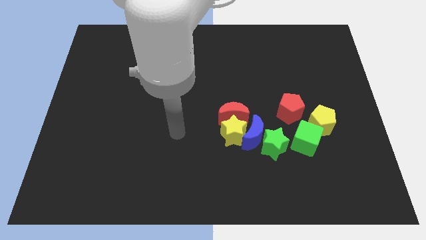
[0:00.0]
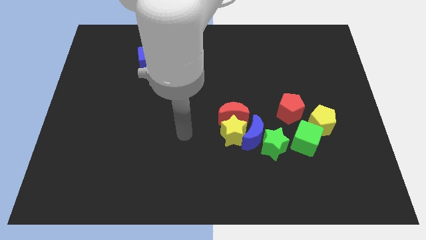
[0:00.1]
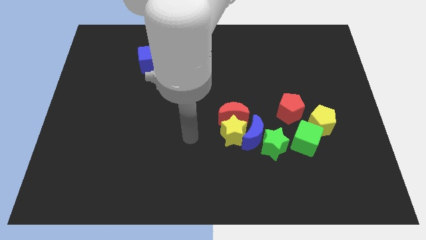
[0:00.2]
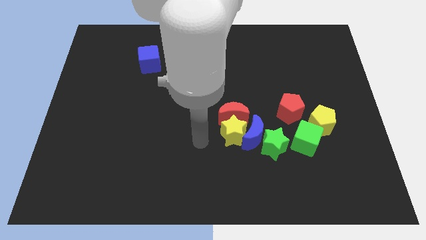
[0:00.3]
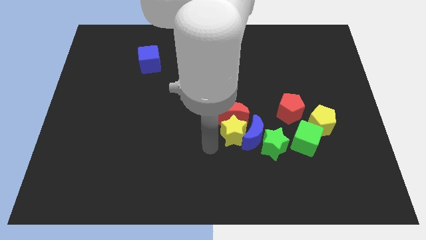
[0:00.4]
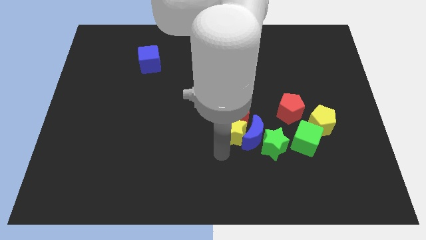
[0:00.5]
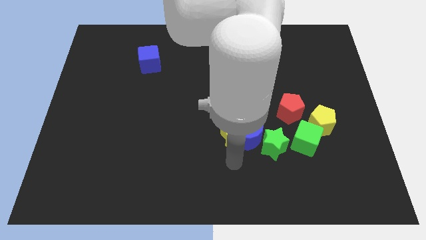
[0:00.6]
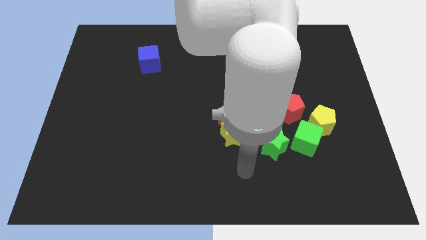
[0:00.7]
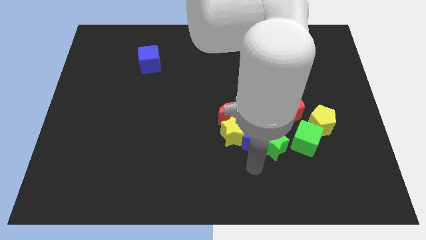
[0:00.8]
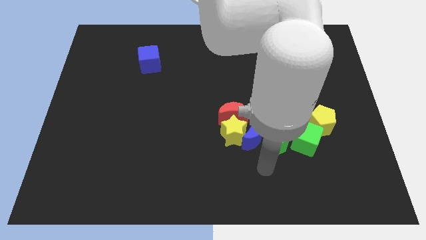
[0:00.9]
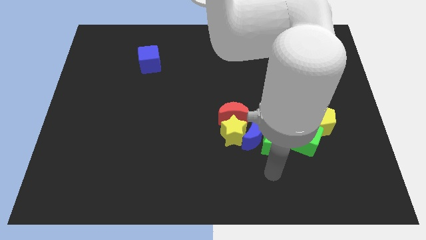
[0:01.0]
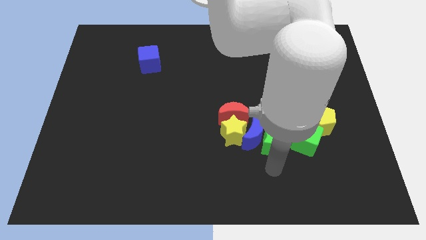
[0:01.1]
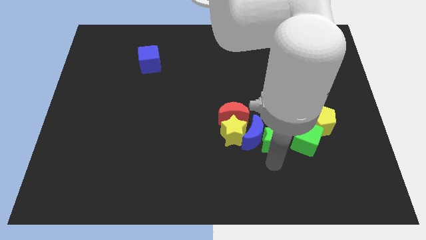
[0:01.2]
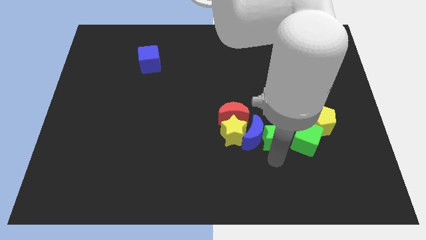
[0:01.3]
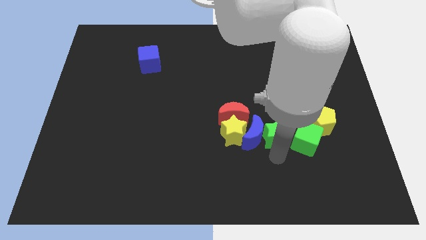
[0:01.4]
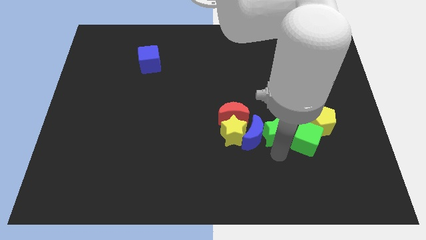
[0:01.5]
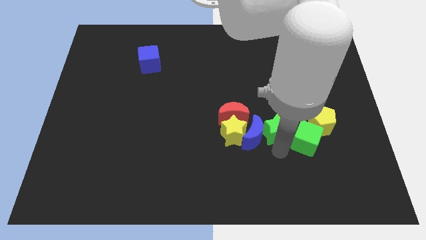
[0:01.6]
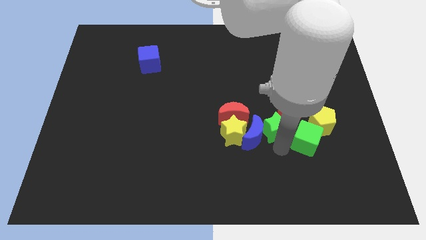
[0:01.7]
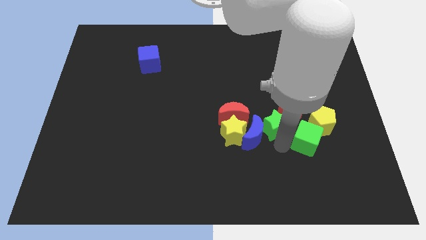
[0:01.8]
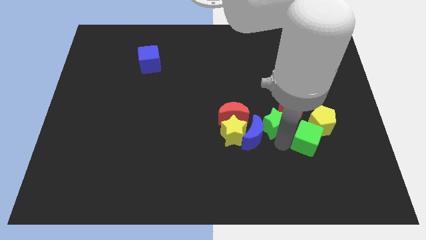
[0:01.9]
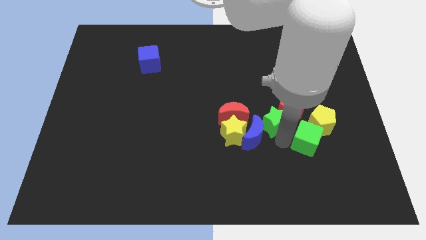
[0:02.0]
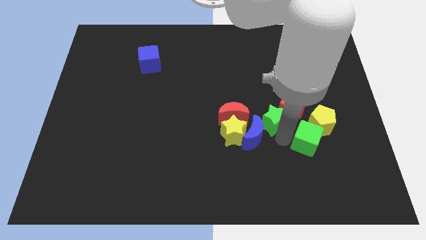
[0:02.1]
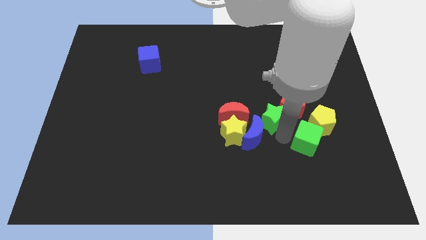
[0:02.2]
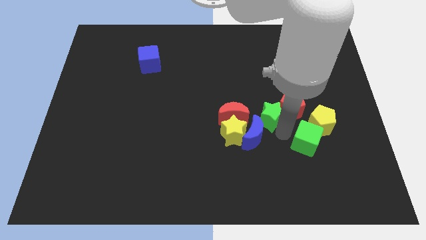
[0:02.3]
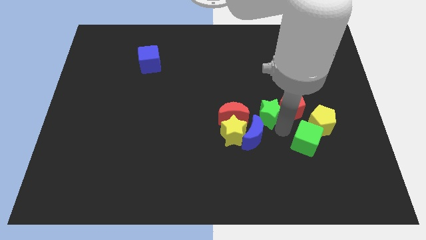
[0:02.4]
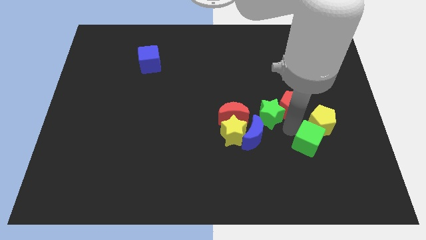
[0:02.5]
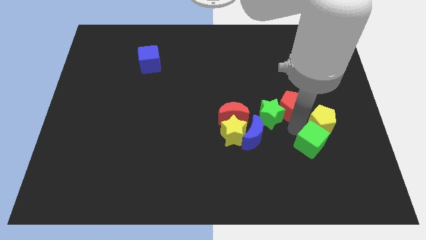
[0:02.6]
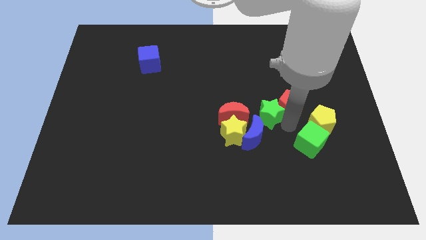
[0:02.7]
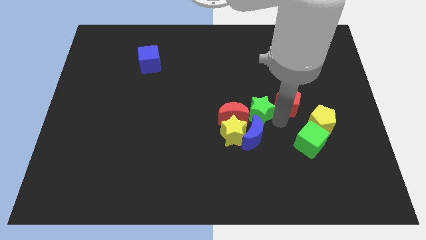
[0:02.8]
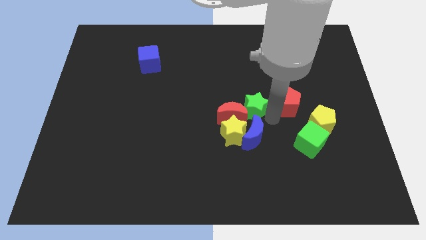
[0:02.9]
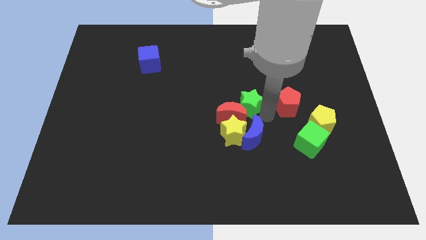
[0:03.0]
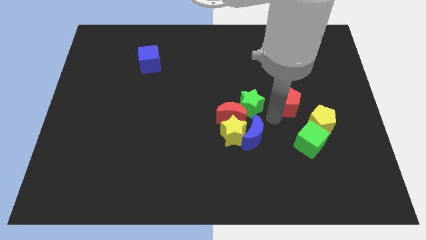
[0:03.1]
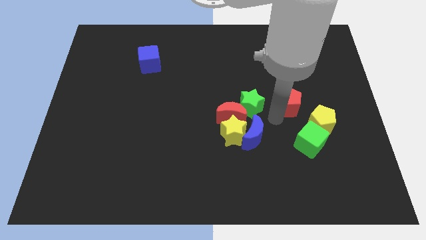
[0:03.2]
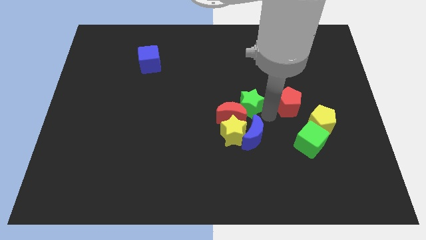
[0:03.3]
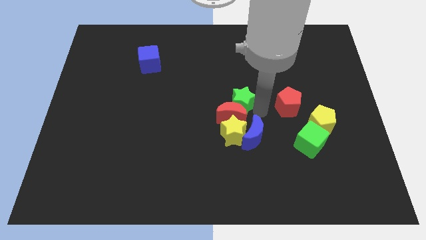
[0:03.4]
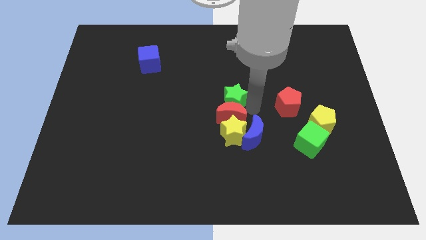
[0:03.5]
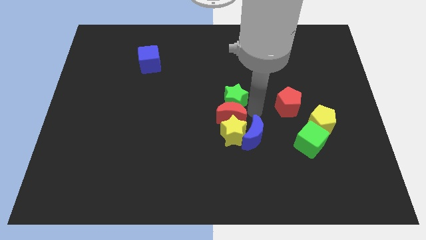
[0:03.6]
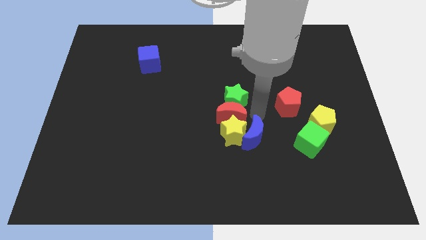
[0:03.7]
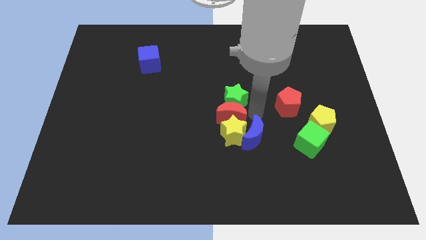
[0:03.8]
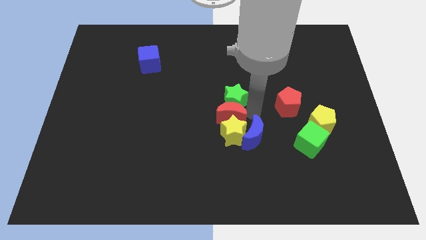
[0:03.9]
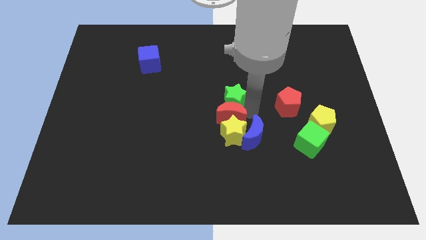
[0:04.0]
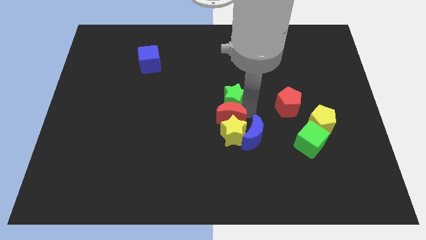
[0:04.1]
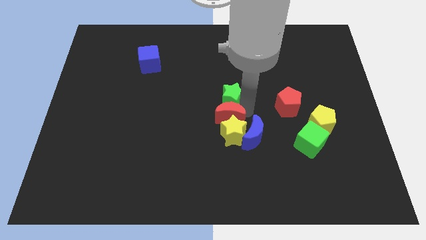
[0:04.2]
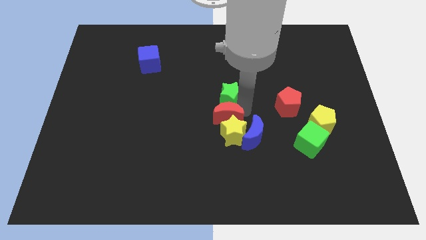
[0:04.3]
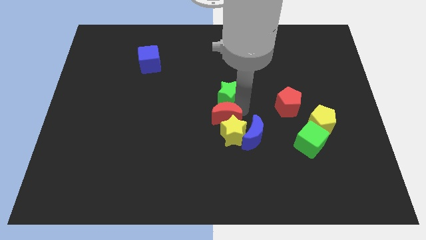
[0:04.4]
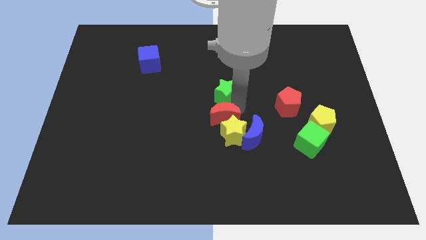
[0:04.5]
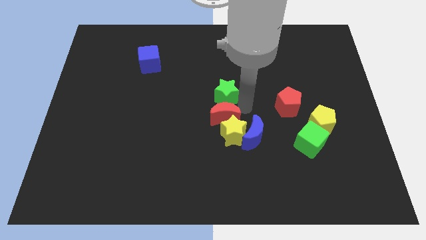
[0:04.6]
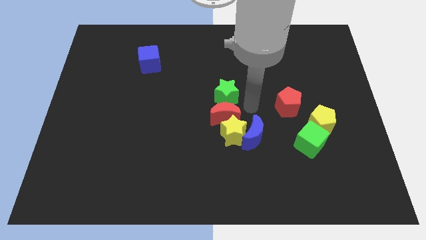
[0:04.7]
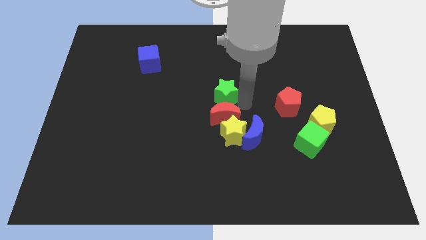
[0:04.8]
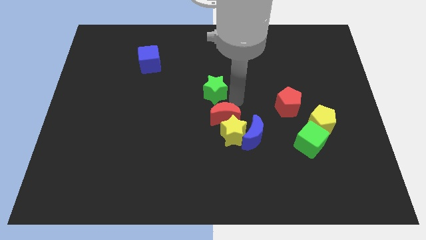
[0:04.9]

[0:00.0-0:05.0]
slide the green star diagonally up and to the left

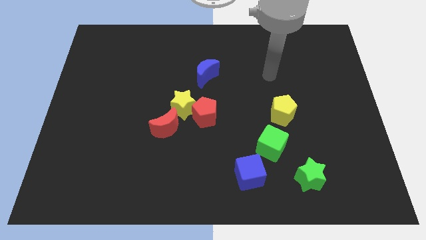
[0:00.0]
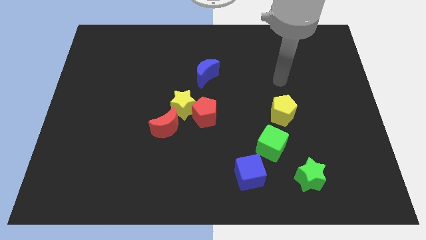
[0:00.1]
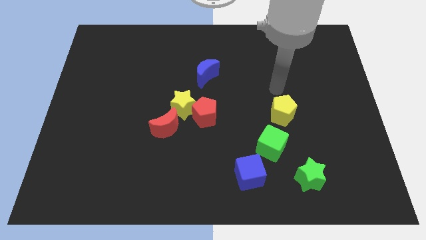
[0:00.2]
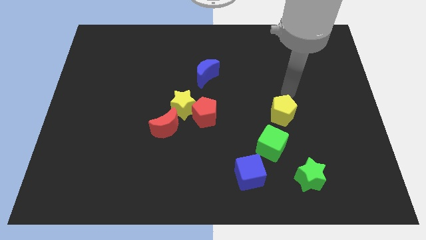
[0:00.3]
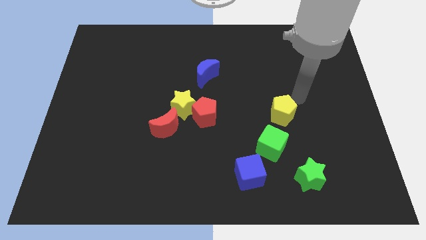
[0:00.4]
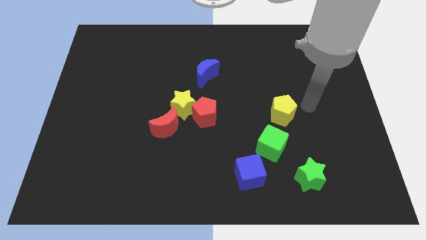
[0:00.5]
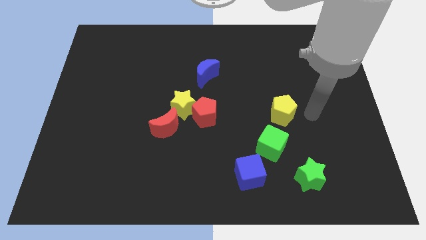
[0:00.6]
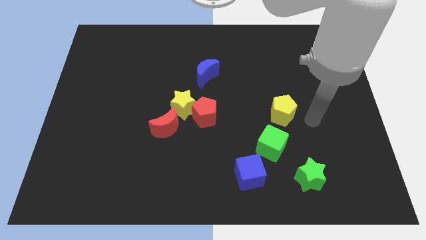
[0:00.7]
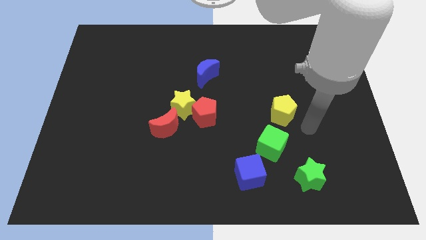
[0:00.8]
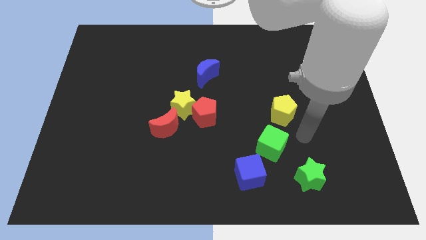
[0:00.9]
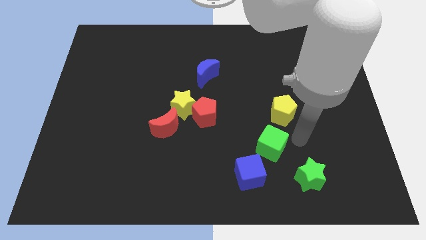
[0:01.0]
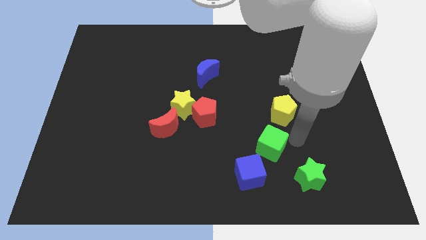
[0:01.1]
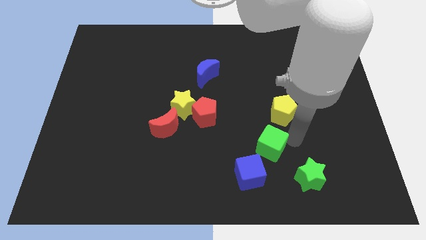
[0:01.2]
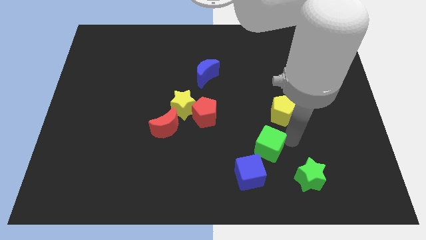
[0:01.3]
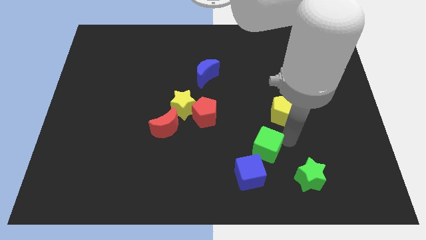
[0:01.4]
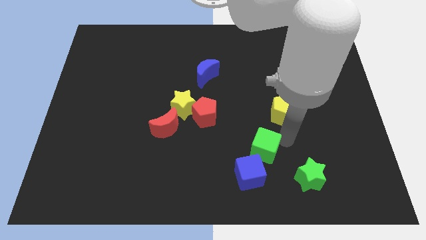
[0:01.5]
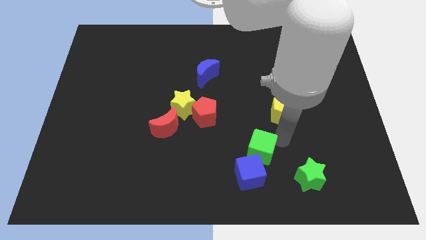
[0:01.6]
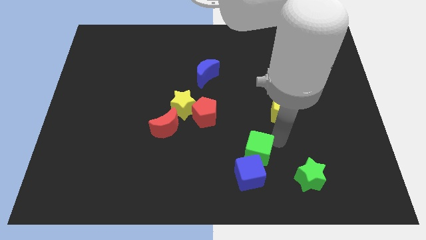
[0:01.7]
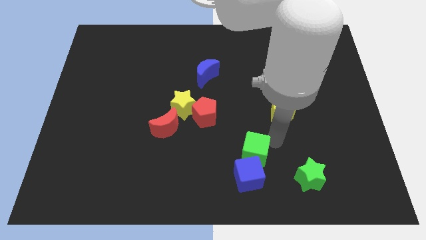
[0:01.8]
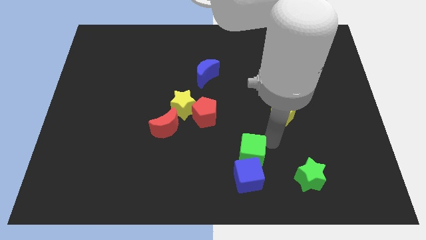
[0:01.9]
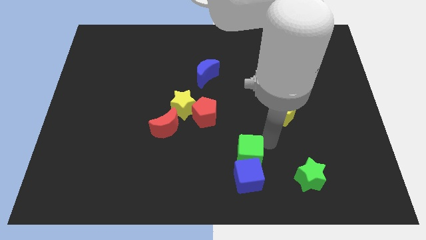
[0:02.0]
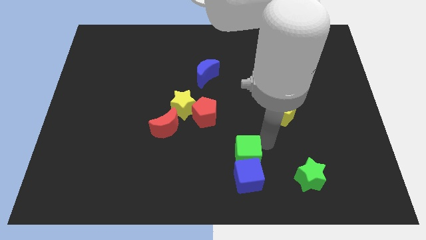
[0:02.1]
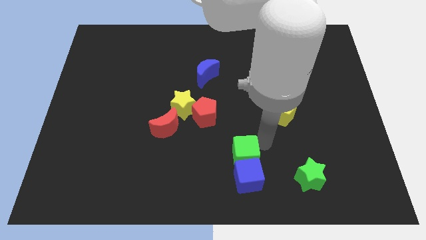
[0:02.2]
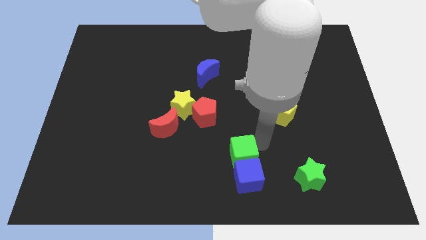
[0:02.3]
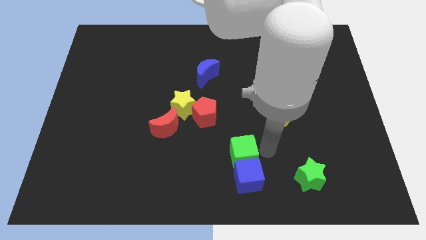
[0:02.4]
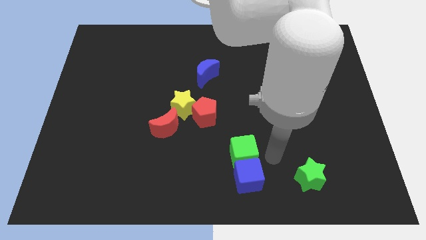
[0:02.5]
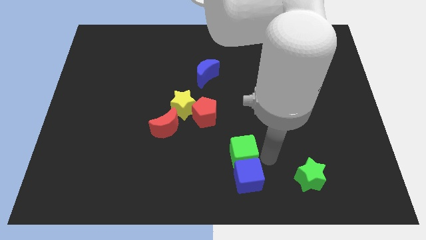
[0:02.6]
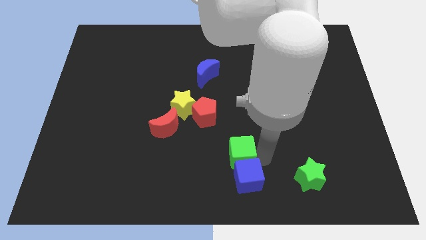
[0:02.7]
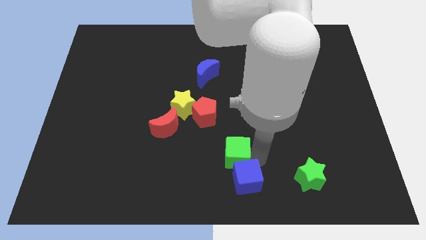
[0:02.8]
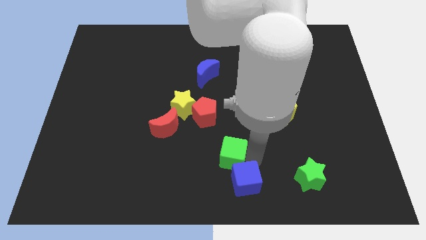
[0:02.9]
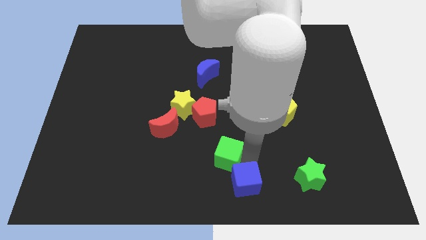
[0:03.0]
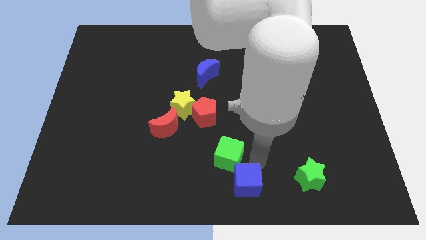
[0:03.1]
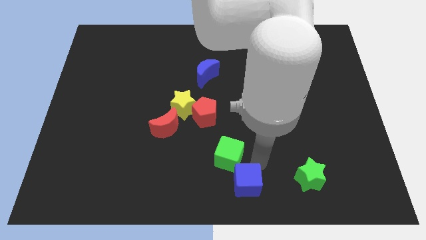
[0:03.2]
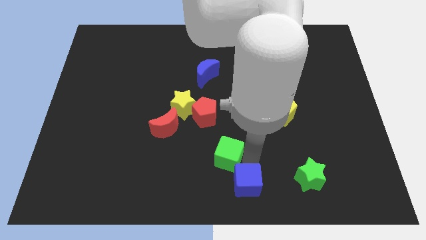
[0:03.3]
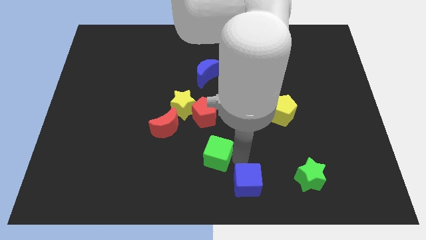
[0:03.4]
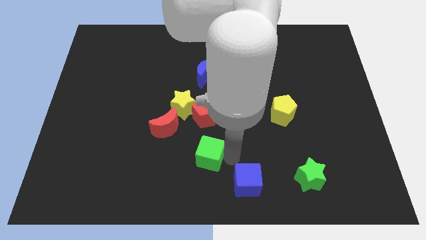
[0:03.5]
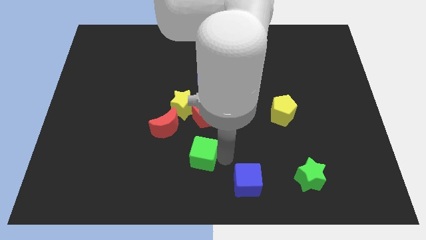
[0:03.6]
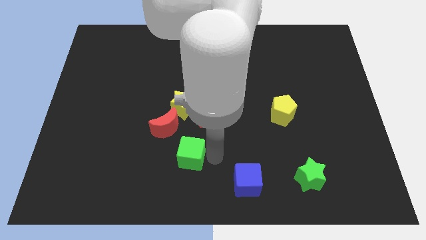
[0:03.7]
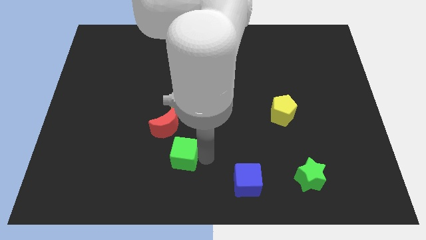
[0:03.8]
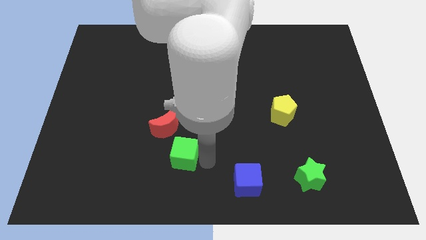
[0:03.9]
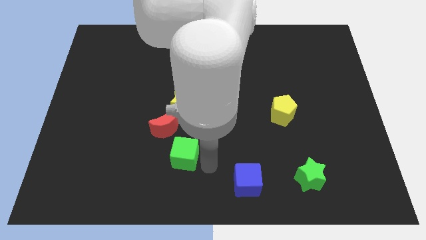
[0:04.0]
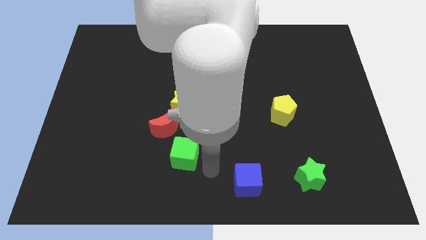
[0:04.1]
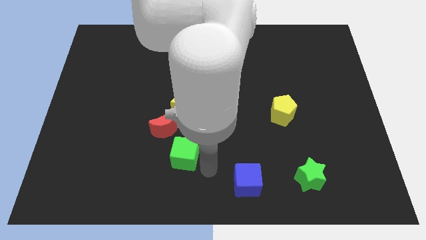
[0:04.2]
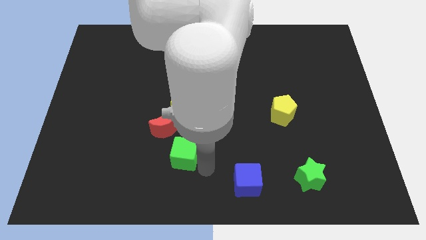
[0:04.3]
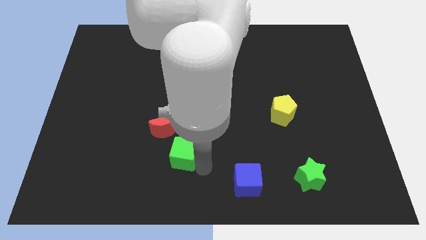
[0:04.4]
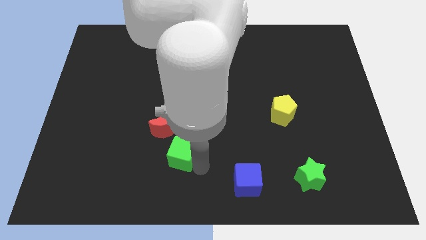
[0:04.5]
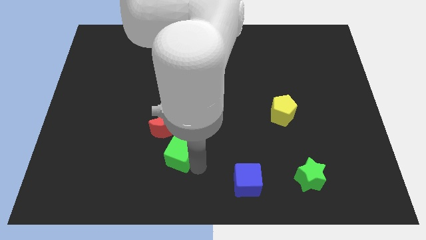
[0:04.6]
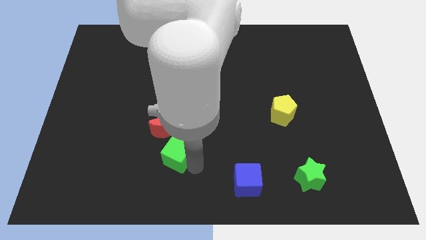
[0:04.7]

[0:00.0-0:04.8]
slide the green cube left
